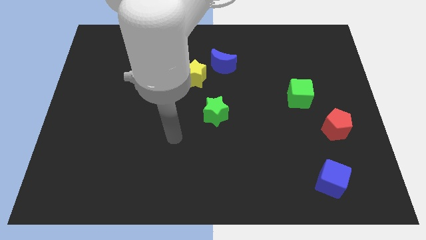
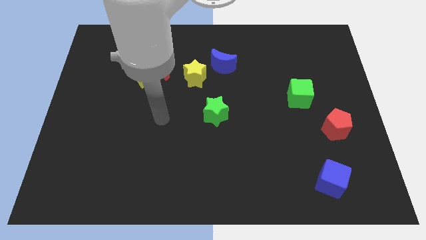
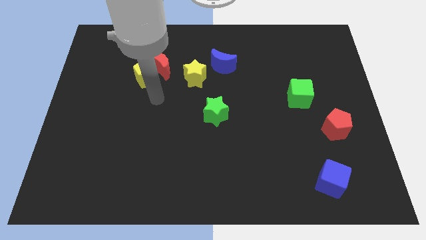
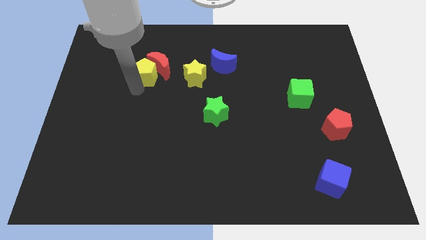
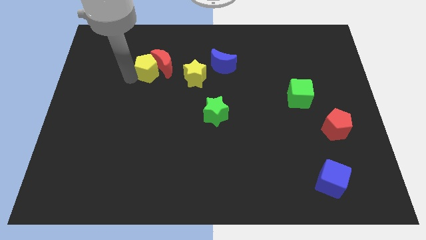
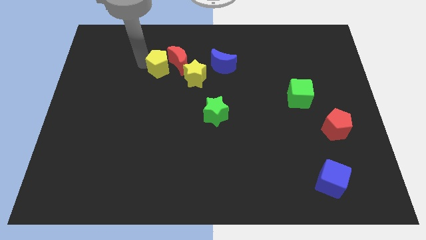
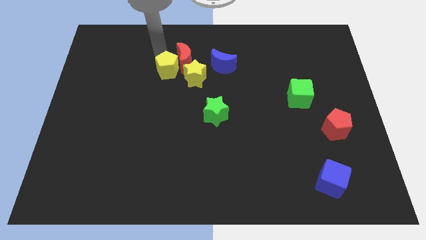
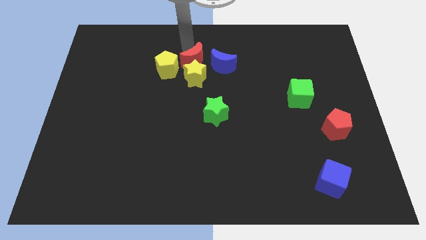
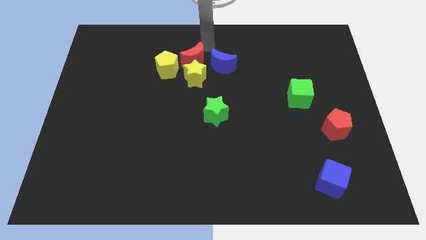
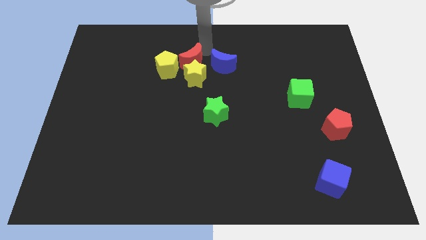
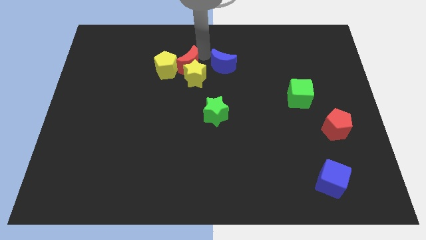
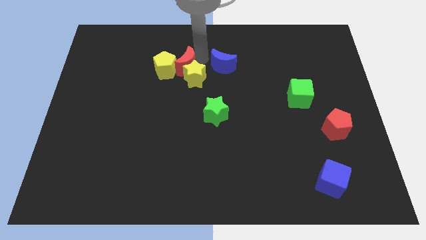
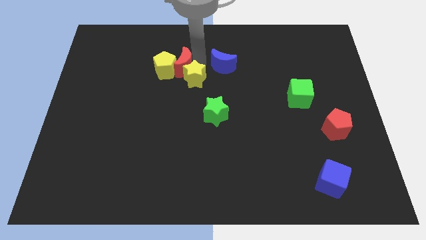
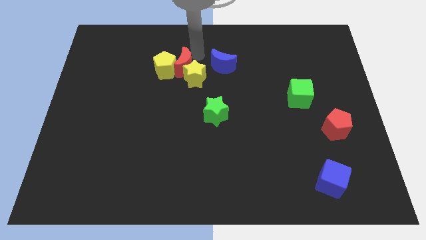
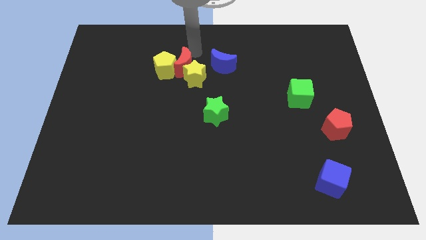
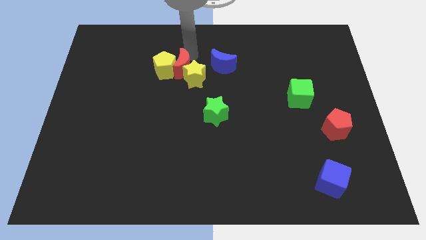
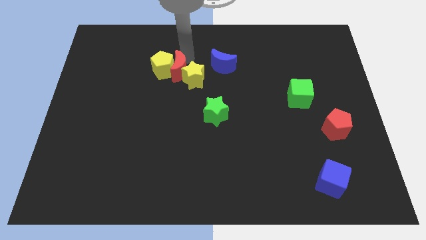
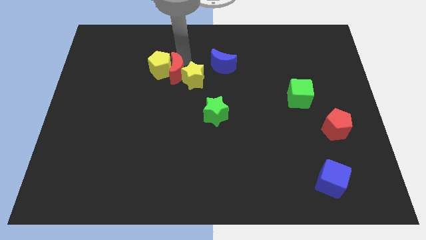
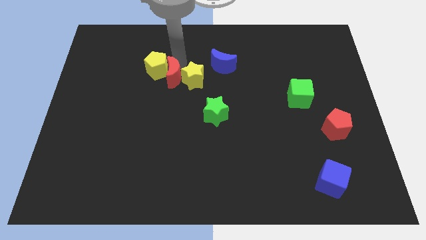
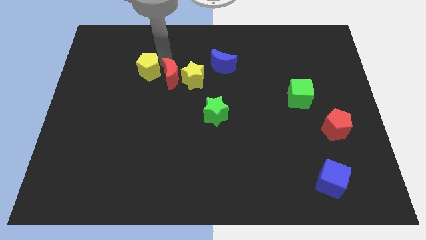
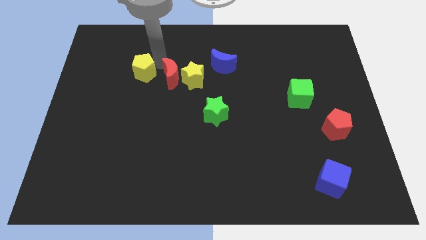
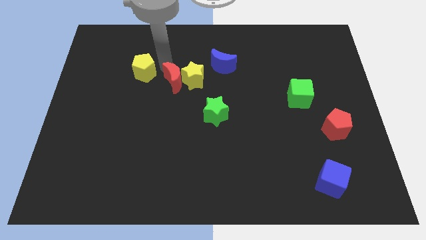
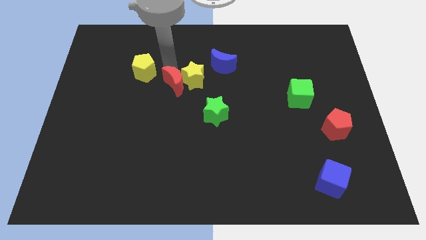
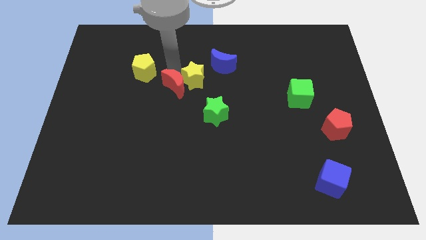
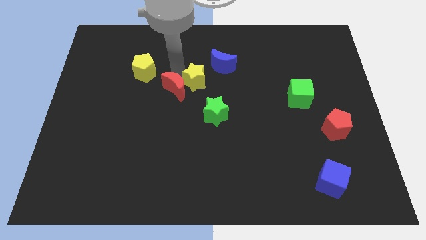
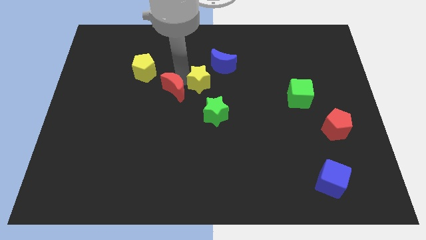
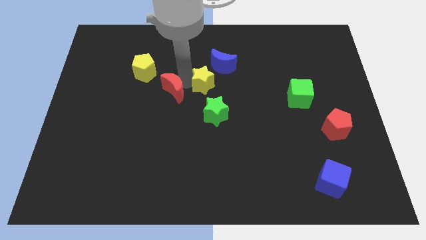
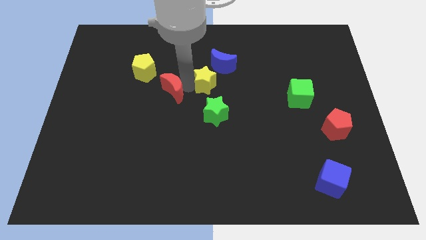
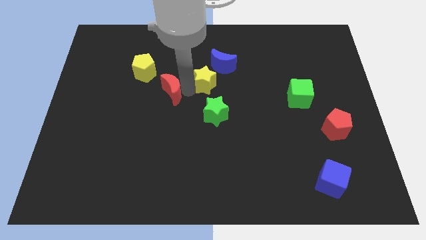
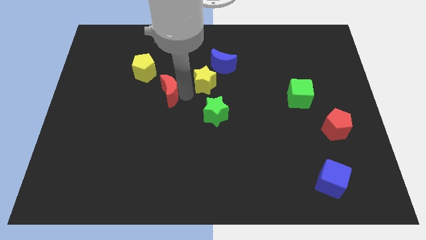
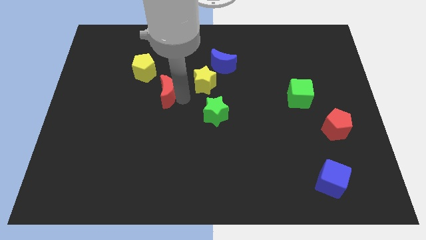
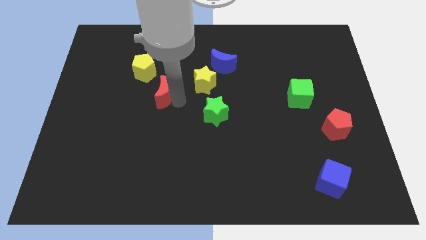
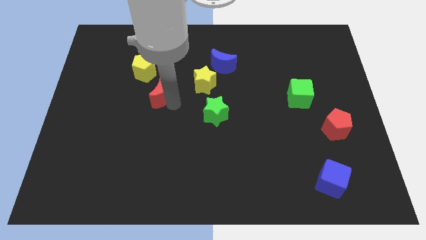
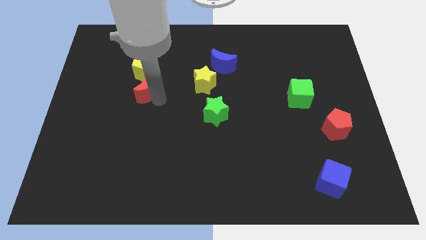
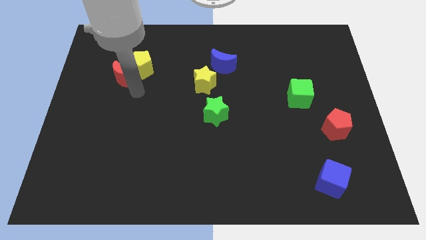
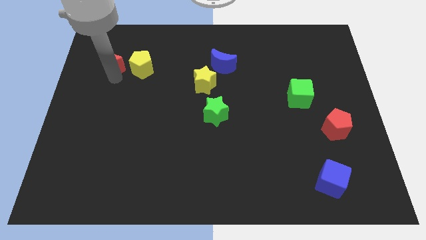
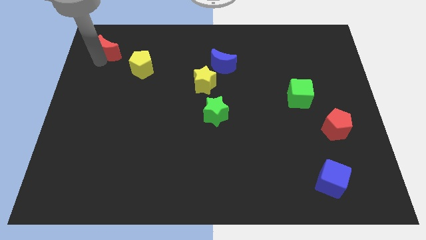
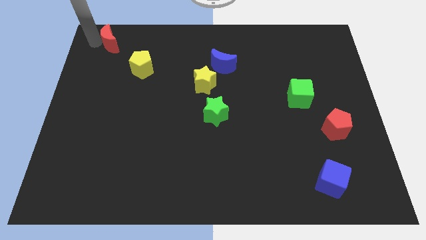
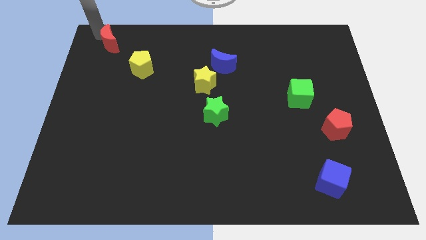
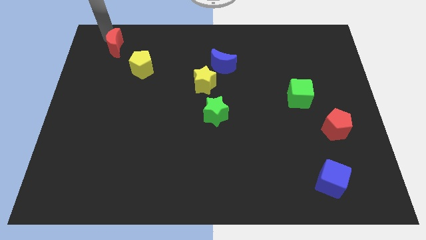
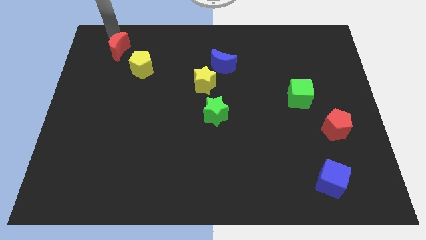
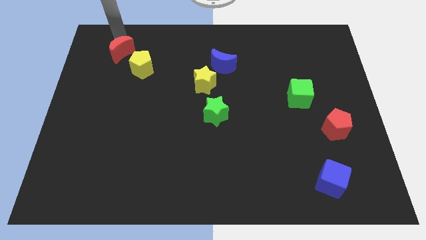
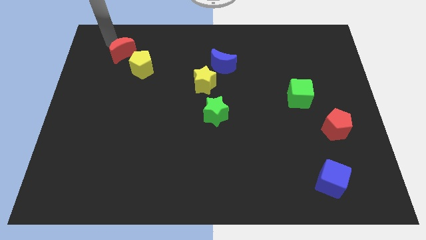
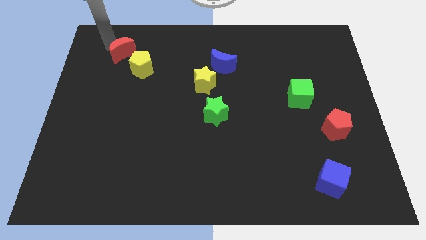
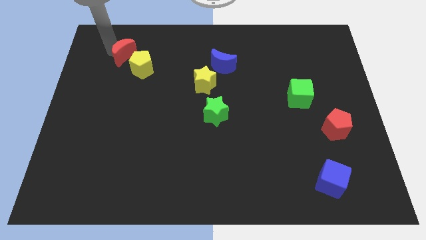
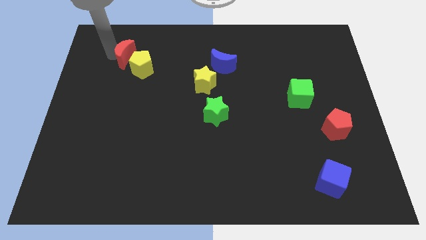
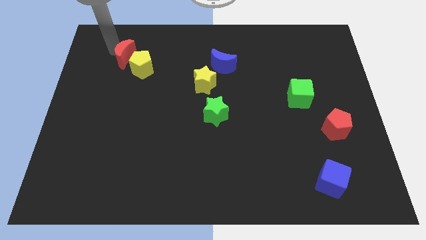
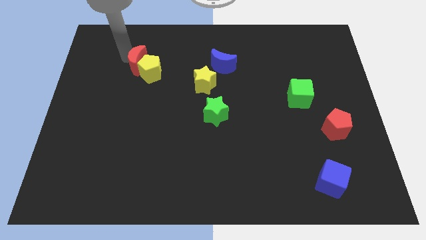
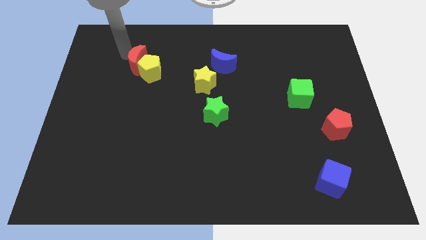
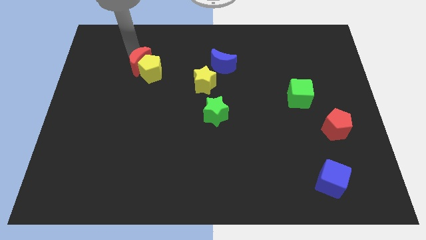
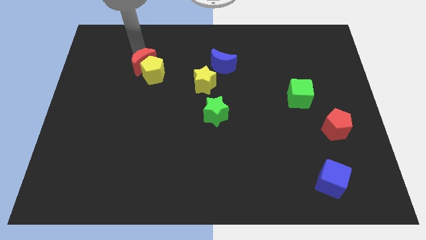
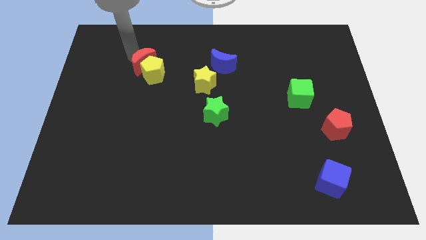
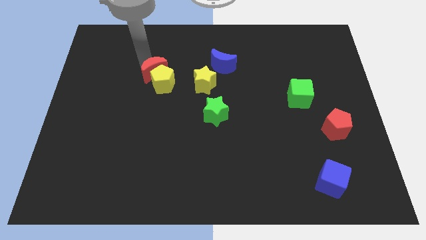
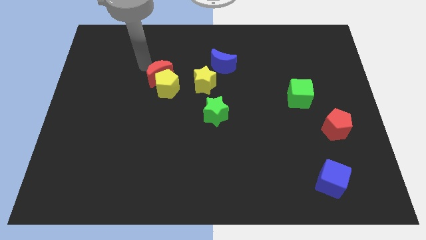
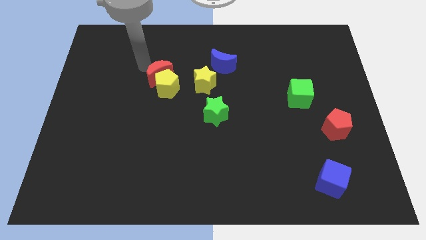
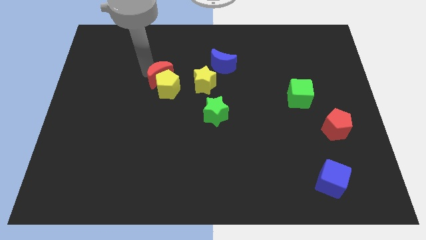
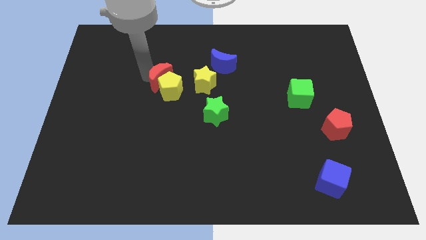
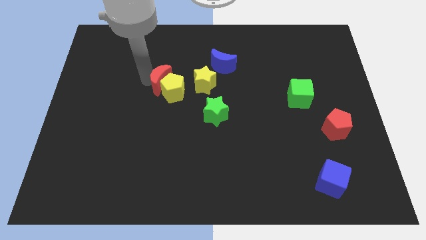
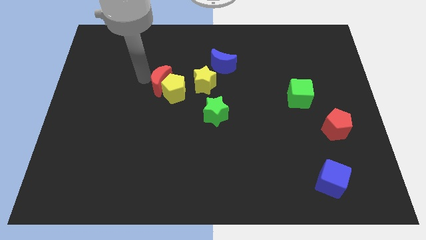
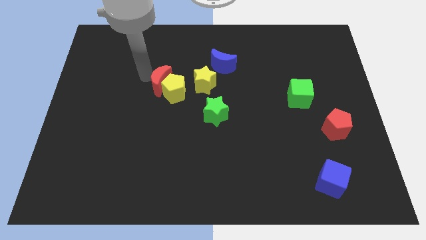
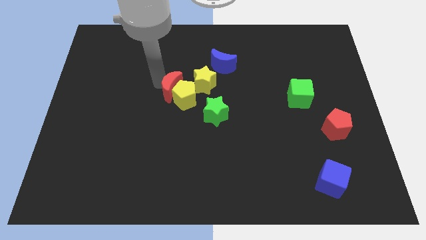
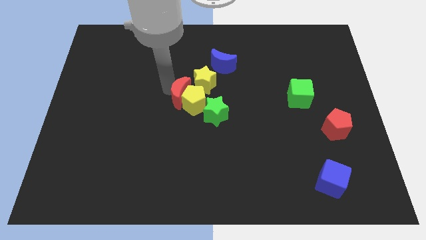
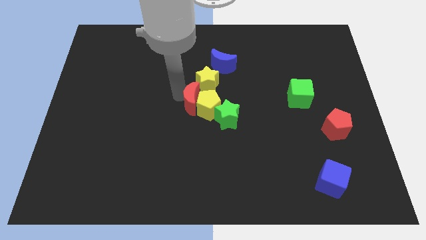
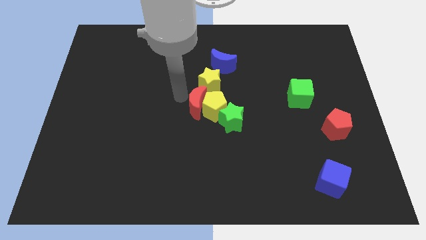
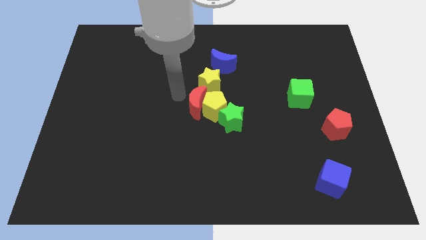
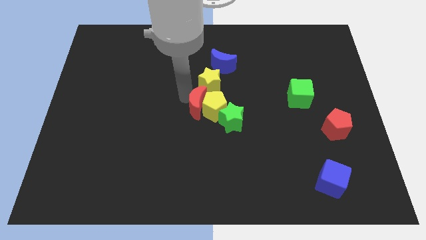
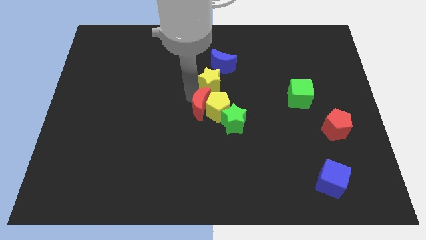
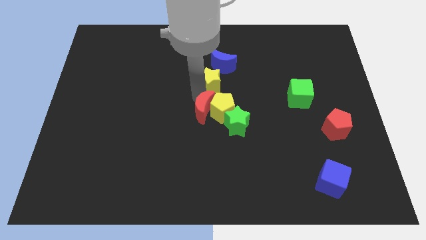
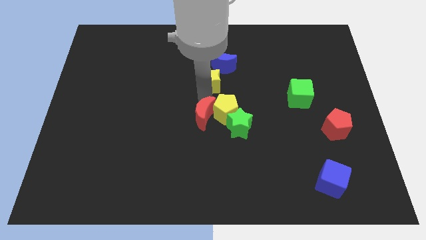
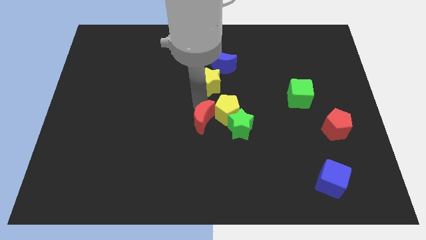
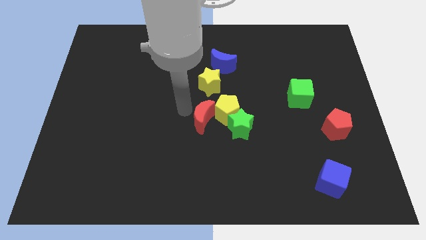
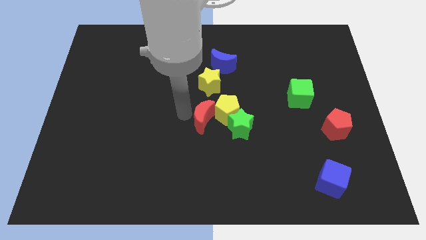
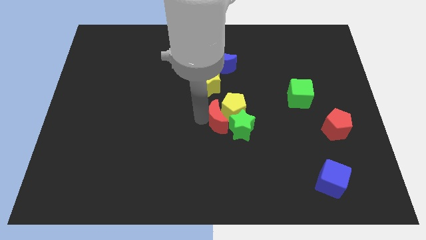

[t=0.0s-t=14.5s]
put the red moon to the green star
